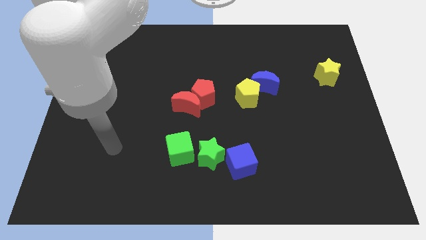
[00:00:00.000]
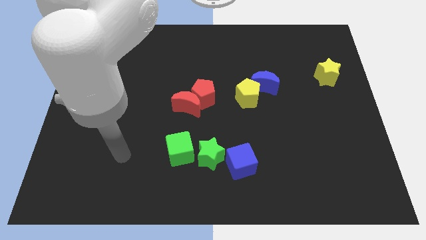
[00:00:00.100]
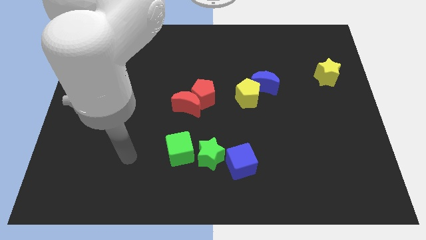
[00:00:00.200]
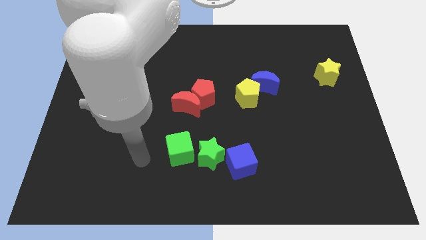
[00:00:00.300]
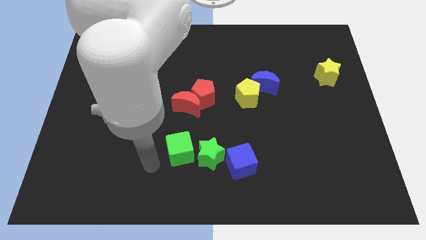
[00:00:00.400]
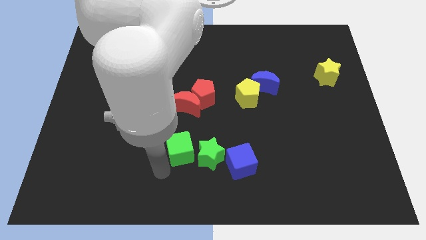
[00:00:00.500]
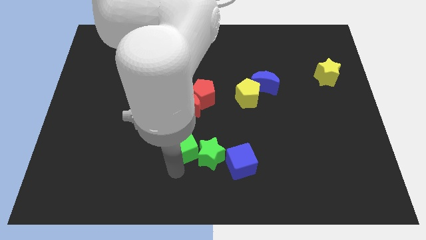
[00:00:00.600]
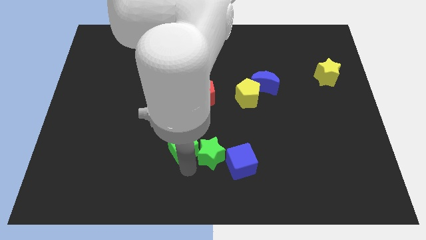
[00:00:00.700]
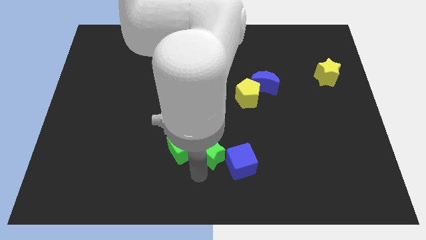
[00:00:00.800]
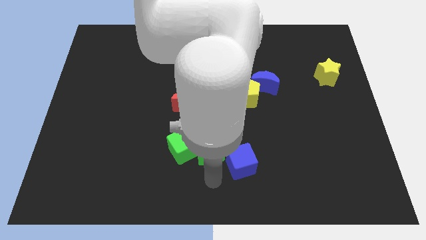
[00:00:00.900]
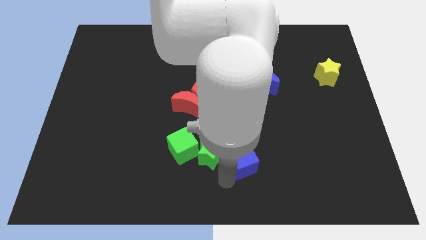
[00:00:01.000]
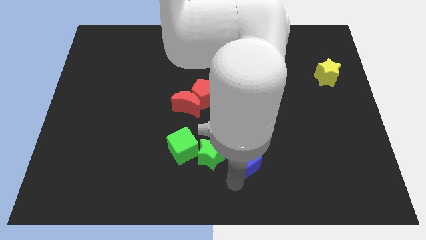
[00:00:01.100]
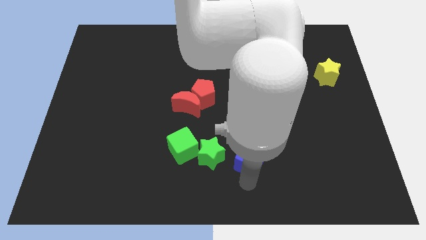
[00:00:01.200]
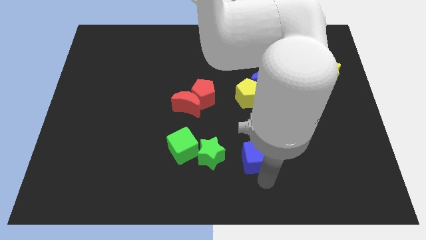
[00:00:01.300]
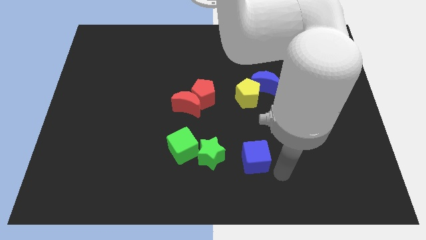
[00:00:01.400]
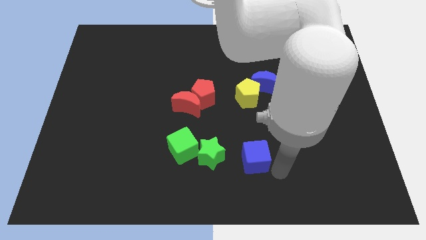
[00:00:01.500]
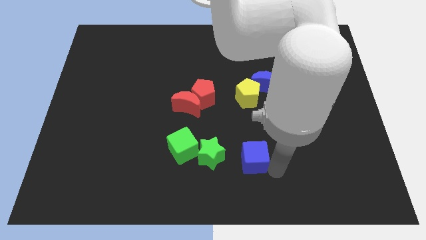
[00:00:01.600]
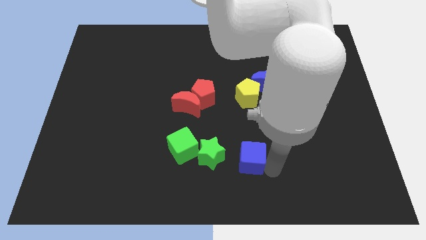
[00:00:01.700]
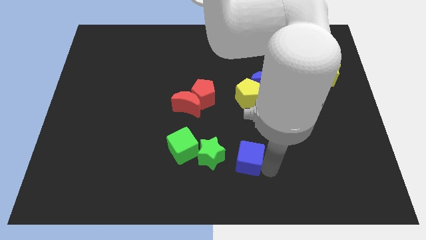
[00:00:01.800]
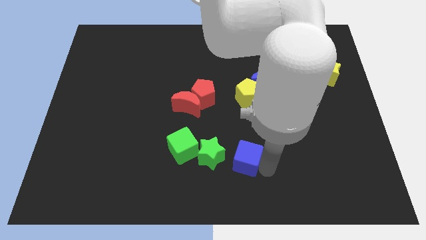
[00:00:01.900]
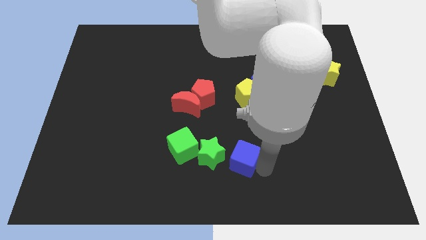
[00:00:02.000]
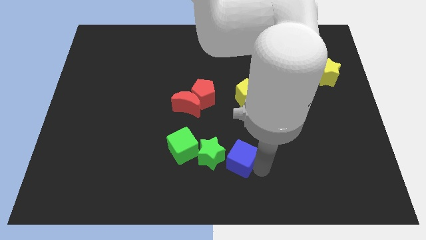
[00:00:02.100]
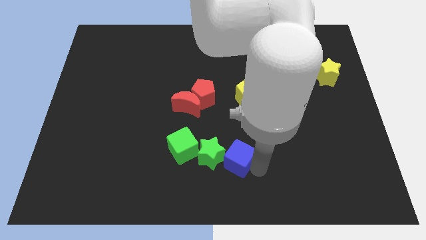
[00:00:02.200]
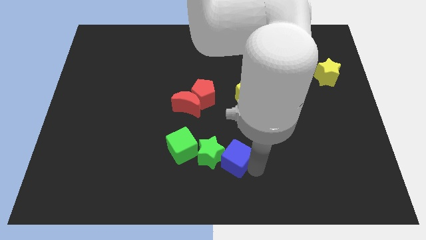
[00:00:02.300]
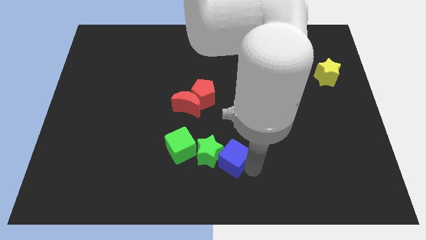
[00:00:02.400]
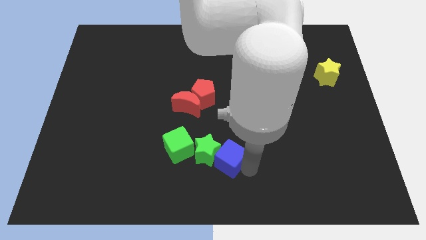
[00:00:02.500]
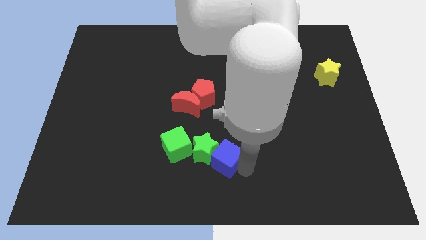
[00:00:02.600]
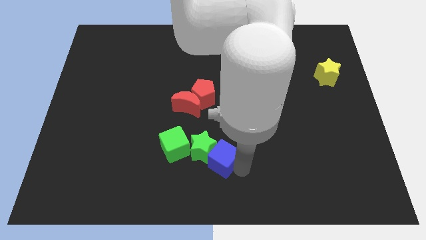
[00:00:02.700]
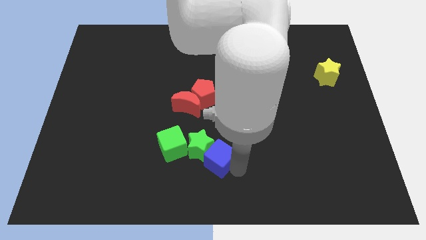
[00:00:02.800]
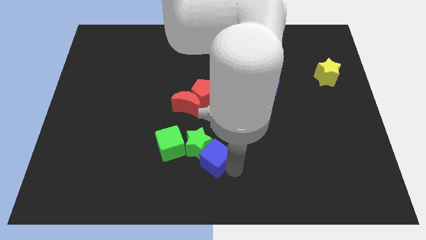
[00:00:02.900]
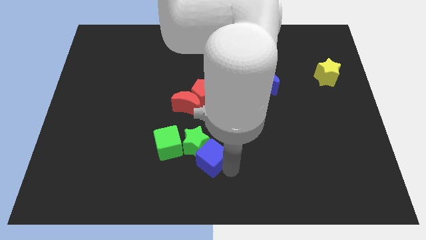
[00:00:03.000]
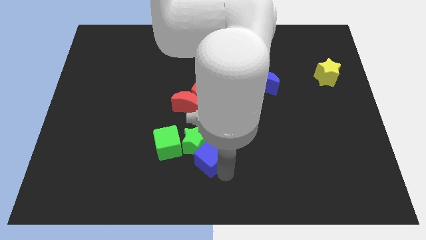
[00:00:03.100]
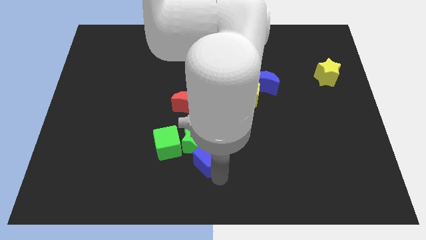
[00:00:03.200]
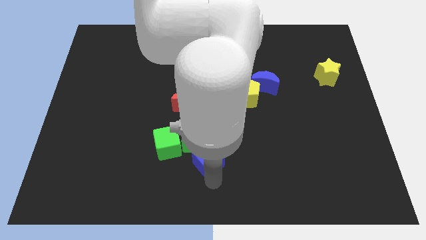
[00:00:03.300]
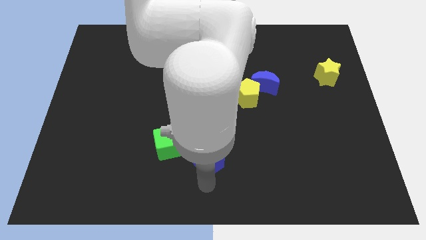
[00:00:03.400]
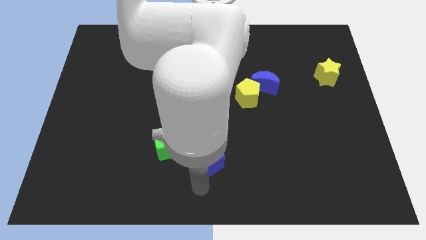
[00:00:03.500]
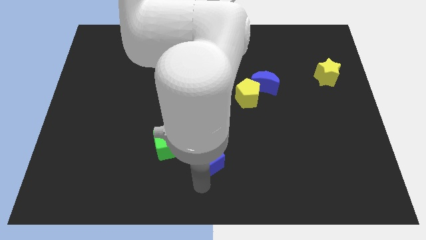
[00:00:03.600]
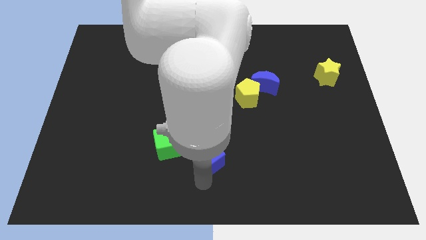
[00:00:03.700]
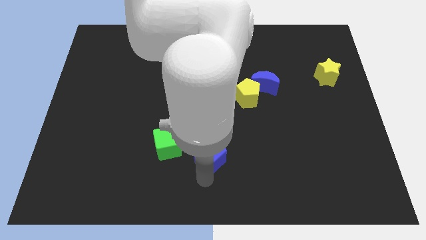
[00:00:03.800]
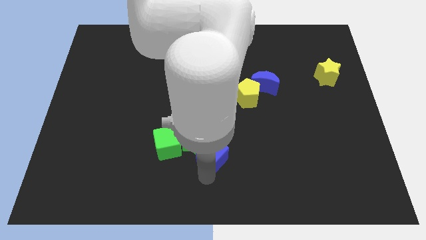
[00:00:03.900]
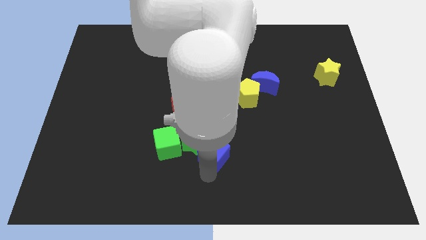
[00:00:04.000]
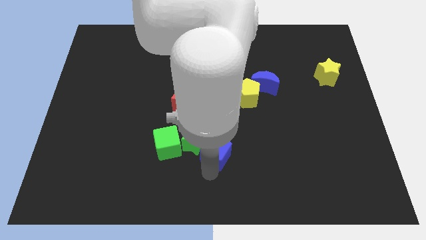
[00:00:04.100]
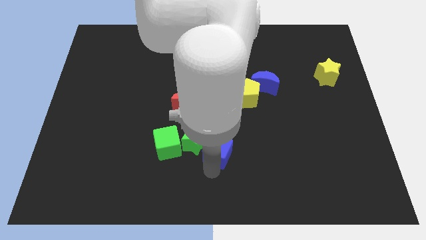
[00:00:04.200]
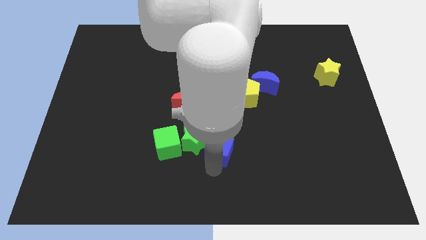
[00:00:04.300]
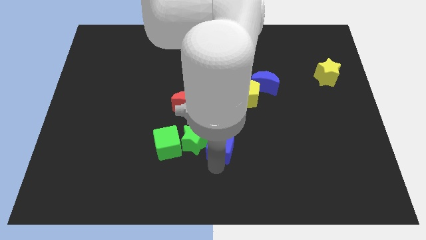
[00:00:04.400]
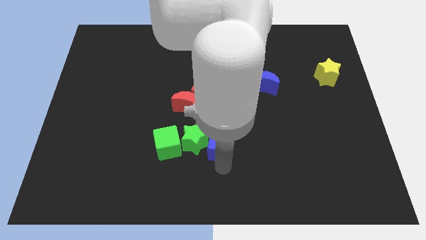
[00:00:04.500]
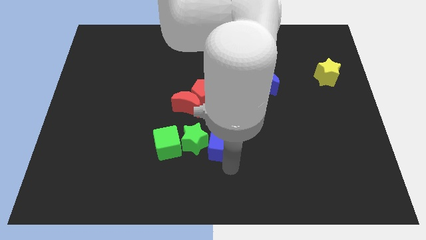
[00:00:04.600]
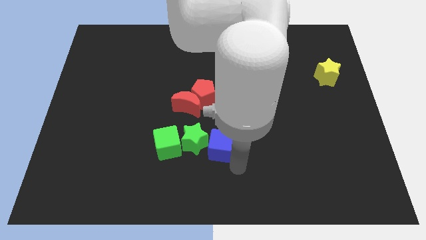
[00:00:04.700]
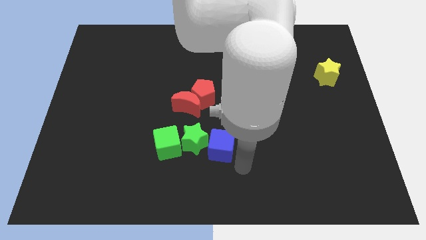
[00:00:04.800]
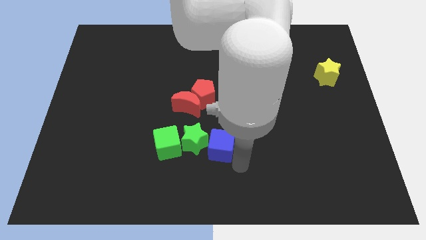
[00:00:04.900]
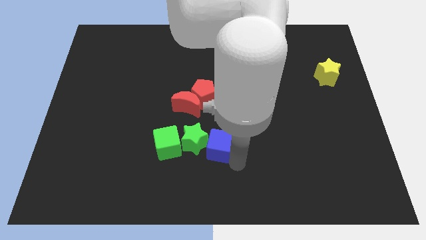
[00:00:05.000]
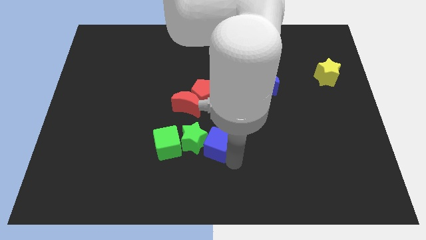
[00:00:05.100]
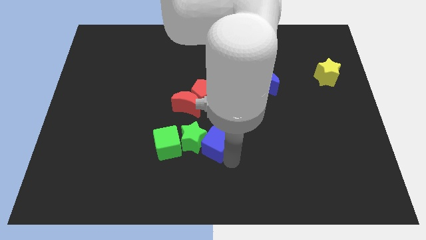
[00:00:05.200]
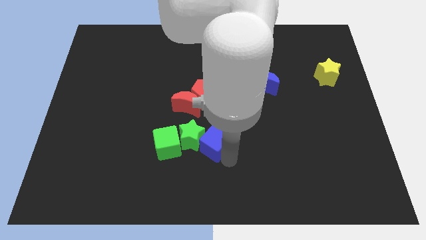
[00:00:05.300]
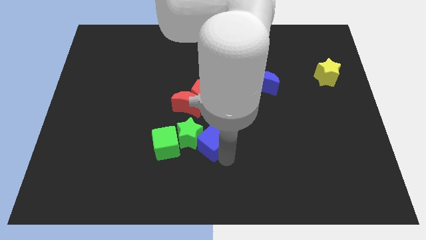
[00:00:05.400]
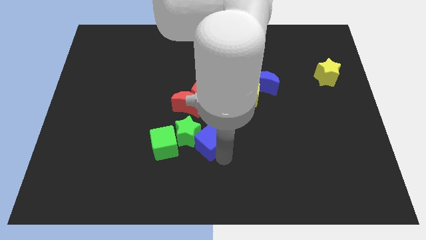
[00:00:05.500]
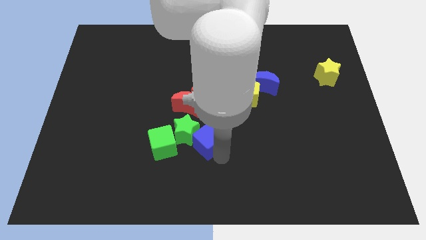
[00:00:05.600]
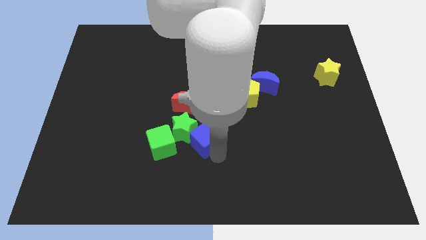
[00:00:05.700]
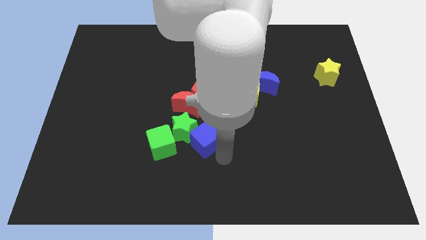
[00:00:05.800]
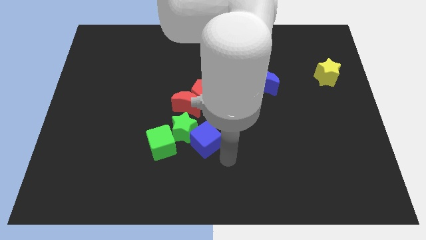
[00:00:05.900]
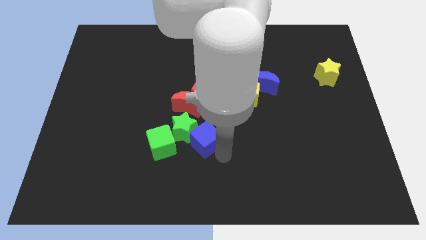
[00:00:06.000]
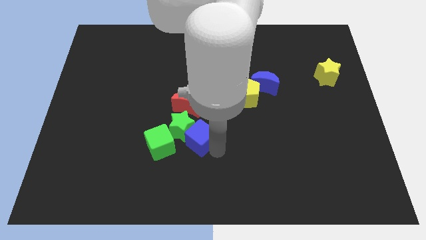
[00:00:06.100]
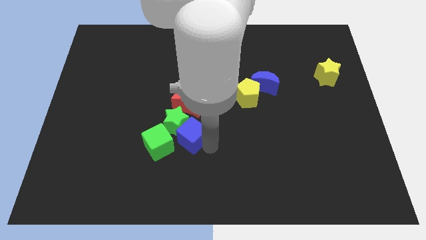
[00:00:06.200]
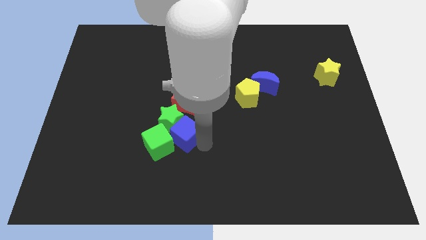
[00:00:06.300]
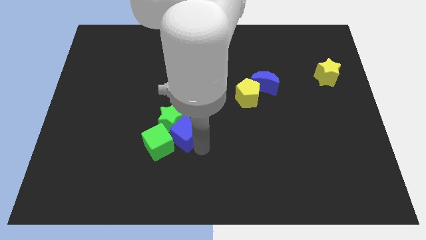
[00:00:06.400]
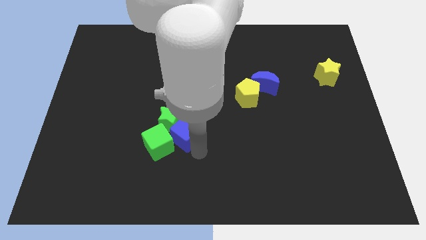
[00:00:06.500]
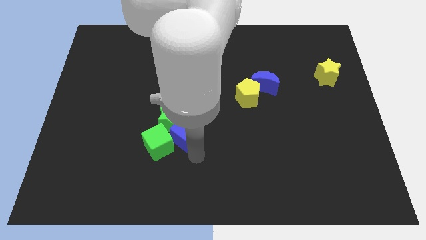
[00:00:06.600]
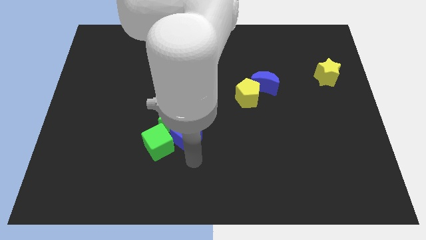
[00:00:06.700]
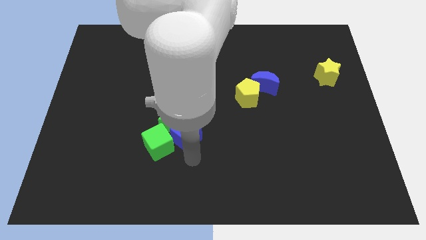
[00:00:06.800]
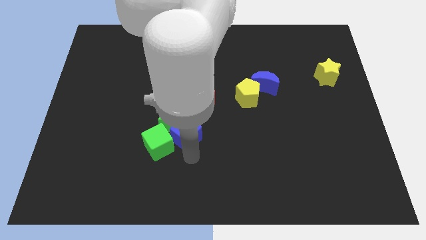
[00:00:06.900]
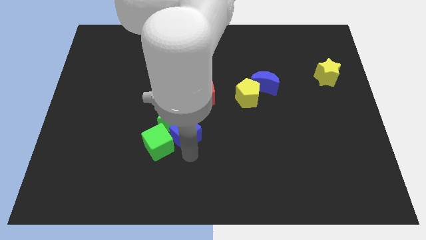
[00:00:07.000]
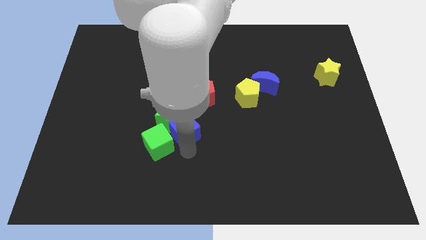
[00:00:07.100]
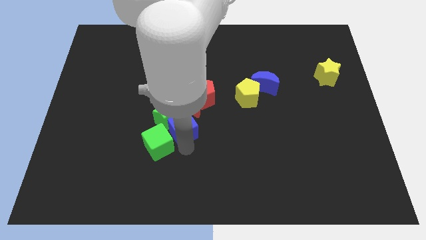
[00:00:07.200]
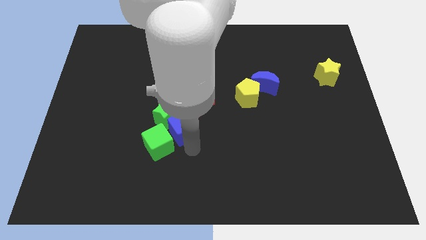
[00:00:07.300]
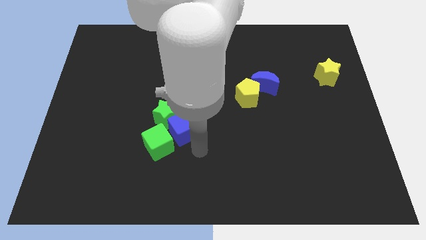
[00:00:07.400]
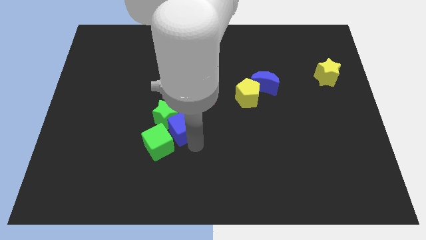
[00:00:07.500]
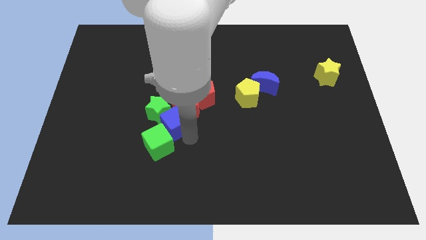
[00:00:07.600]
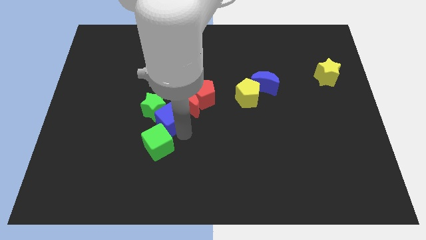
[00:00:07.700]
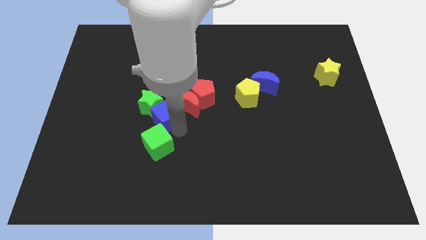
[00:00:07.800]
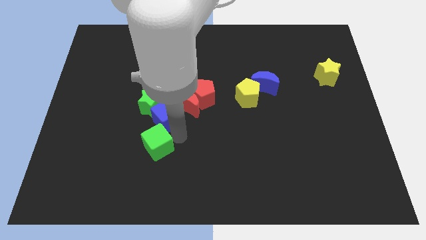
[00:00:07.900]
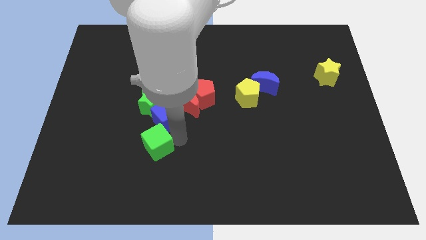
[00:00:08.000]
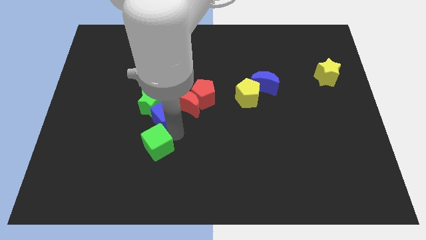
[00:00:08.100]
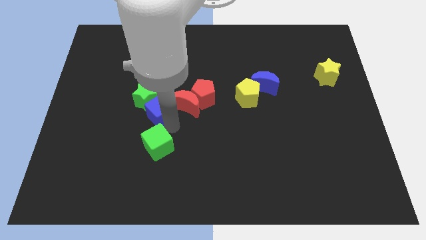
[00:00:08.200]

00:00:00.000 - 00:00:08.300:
move the blue cube up and then to the left
